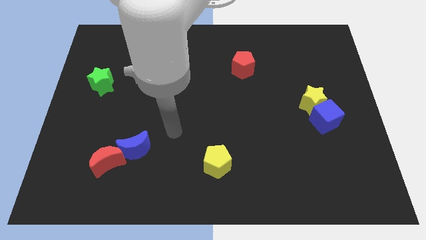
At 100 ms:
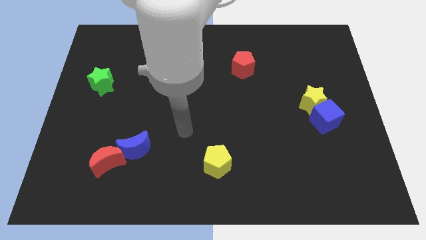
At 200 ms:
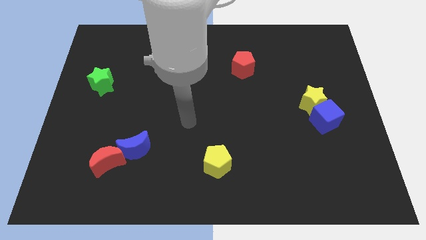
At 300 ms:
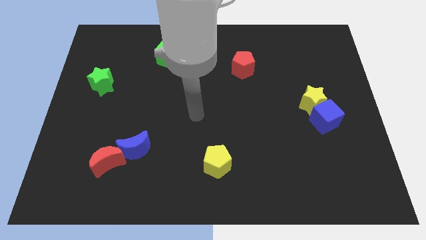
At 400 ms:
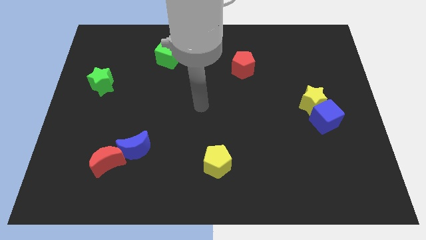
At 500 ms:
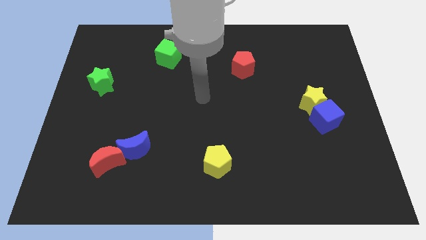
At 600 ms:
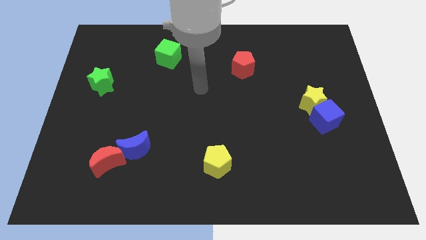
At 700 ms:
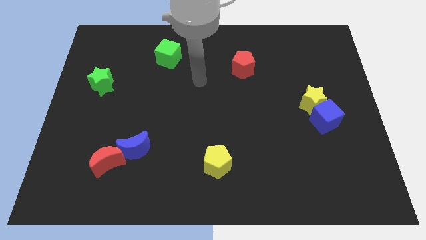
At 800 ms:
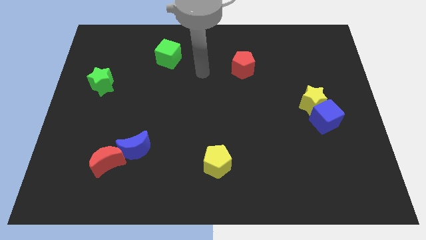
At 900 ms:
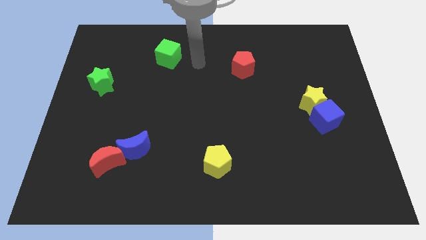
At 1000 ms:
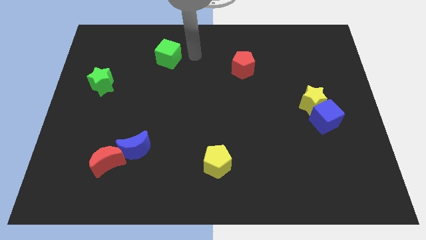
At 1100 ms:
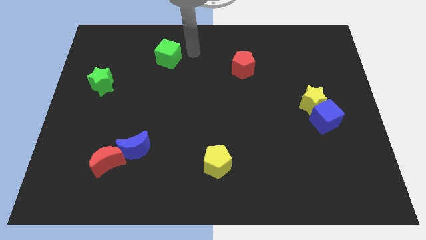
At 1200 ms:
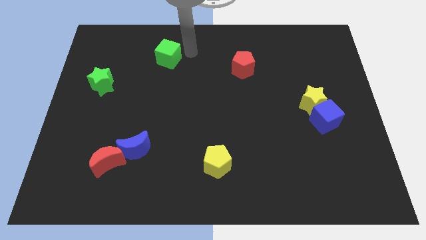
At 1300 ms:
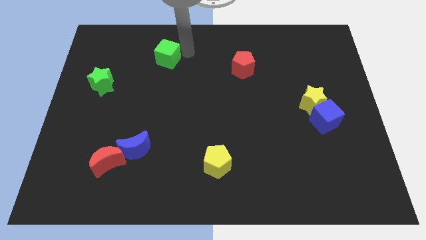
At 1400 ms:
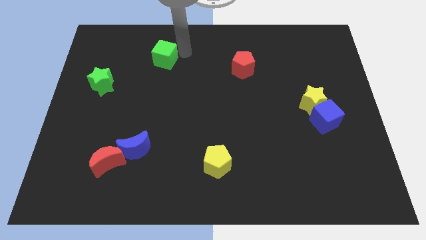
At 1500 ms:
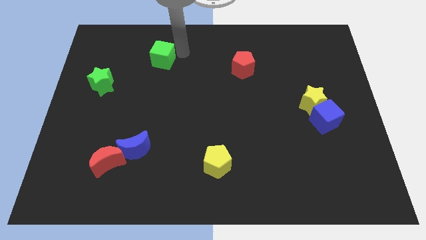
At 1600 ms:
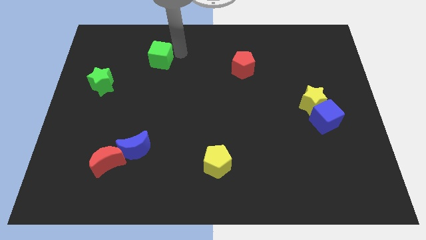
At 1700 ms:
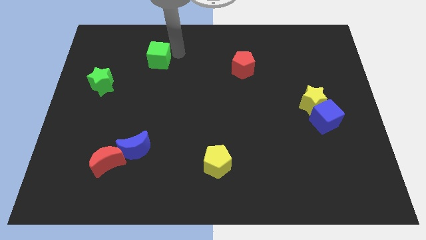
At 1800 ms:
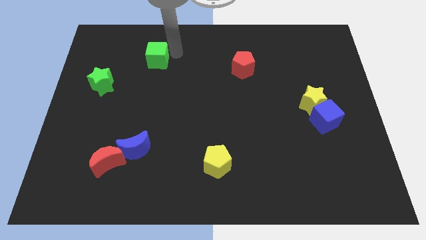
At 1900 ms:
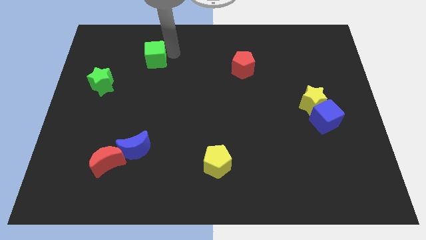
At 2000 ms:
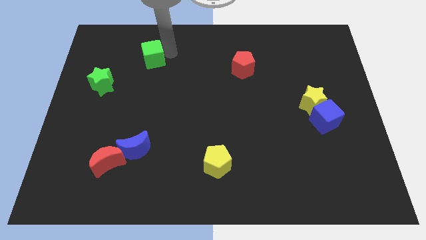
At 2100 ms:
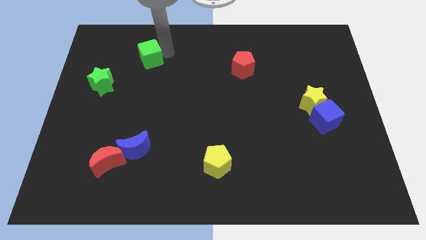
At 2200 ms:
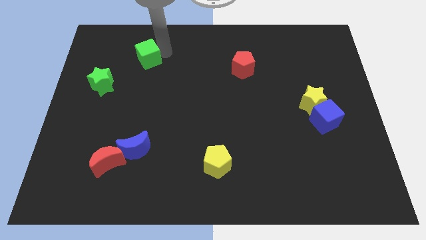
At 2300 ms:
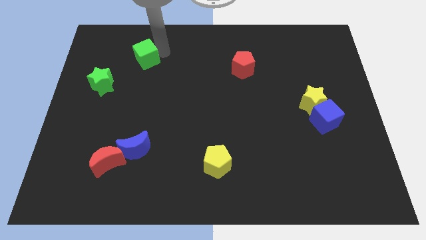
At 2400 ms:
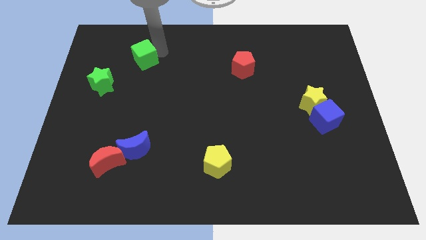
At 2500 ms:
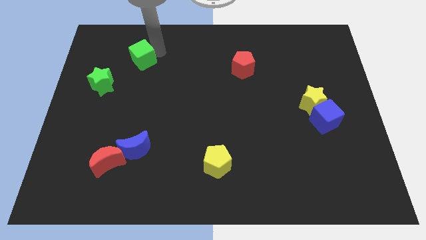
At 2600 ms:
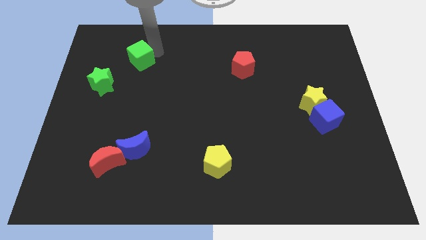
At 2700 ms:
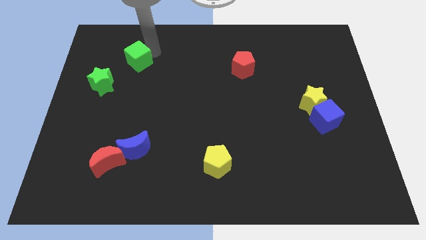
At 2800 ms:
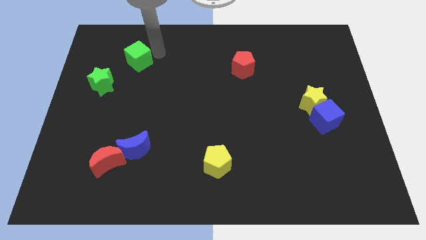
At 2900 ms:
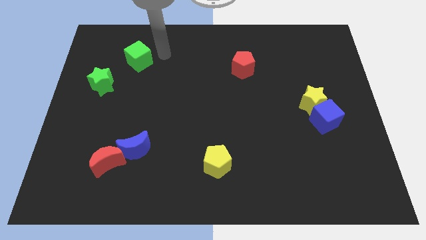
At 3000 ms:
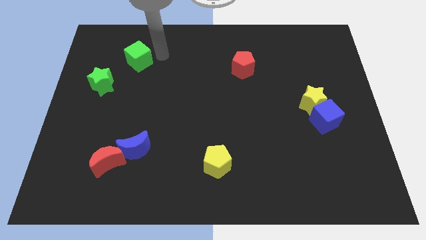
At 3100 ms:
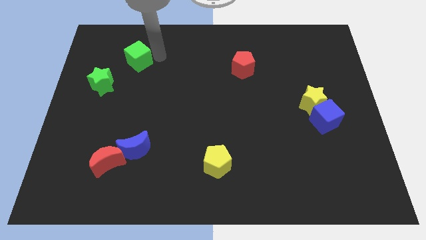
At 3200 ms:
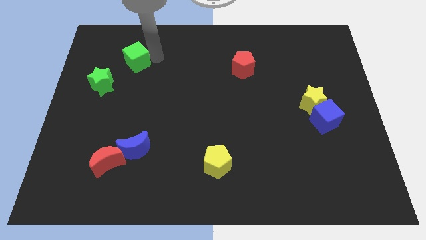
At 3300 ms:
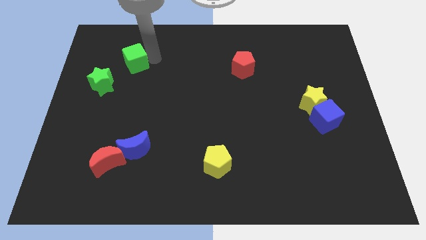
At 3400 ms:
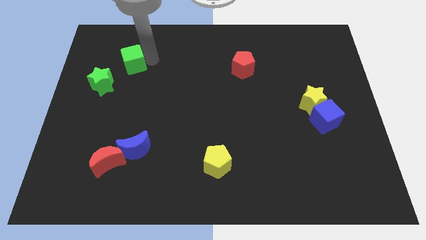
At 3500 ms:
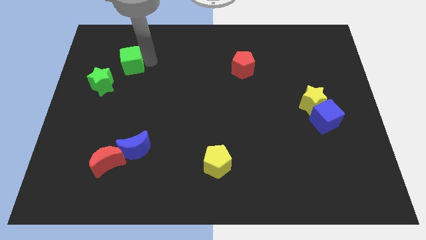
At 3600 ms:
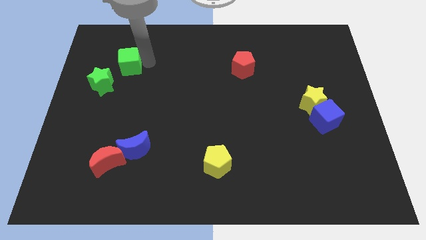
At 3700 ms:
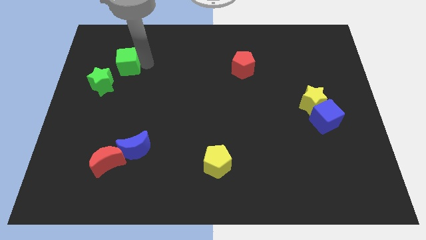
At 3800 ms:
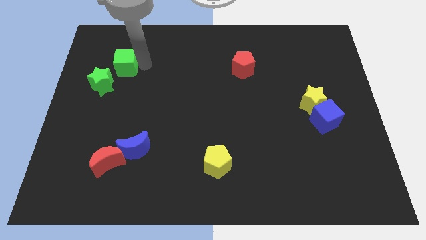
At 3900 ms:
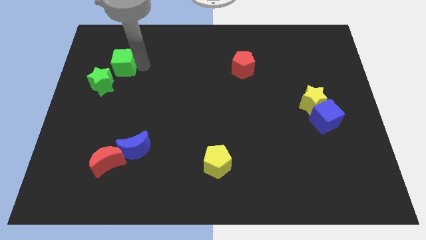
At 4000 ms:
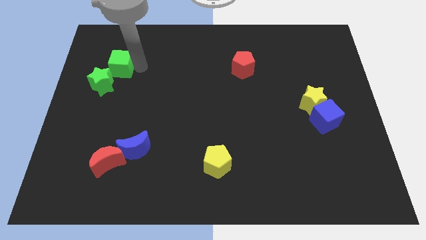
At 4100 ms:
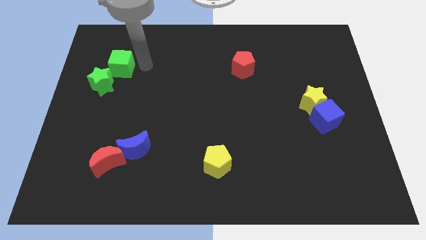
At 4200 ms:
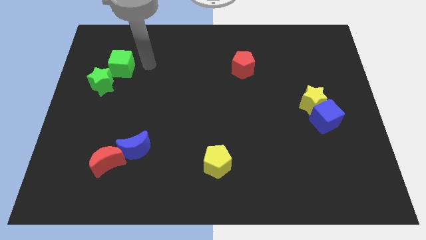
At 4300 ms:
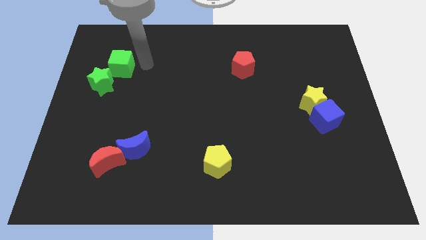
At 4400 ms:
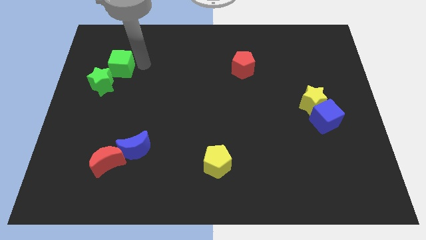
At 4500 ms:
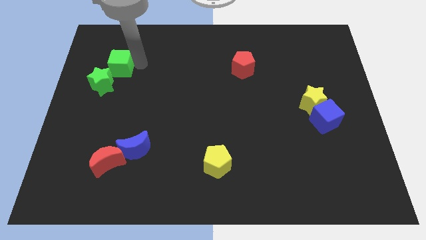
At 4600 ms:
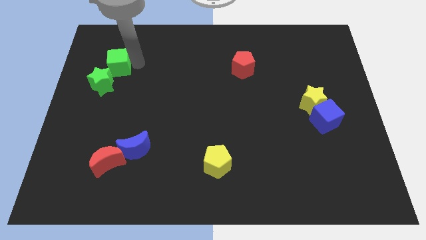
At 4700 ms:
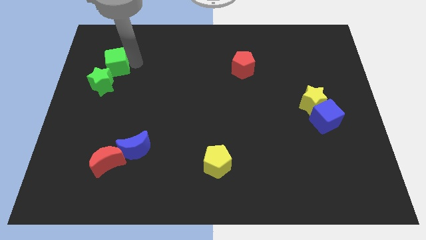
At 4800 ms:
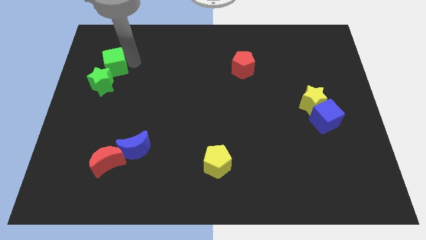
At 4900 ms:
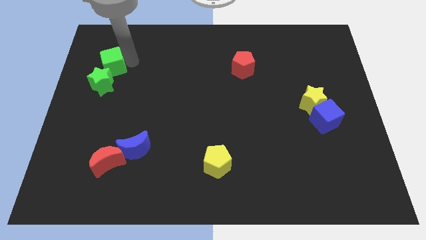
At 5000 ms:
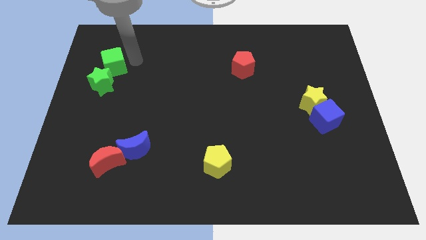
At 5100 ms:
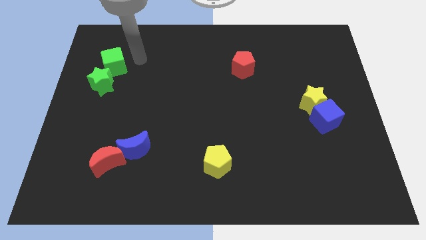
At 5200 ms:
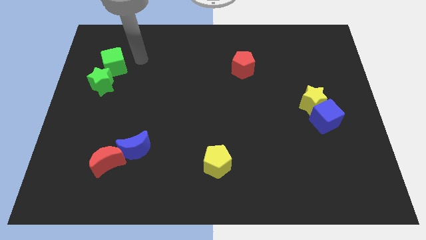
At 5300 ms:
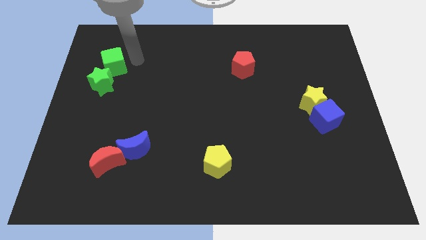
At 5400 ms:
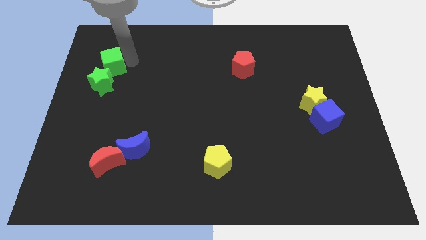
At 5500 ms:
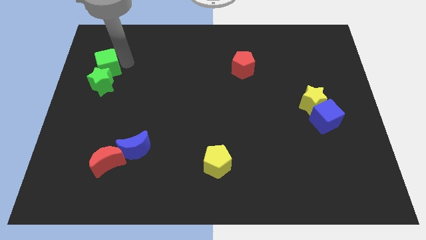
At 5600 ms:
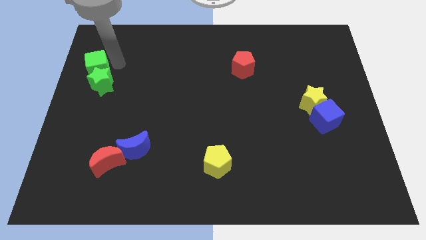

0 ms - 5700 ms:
push the green cube to the center left

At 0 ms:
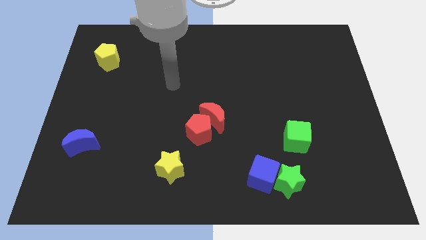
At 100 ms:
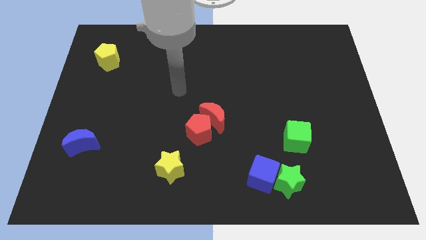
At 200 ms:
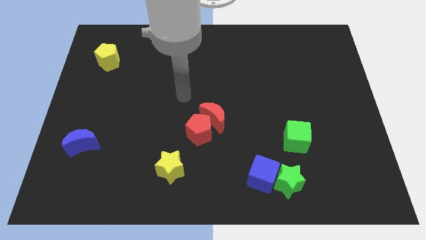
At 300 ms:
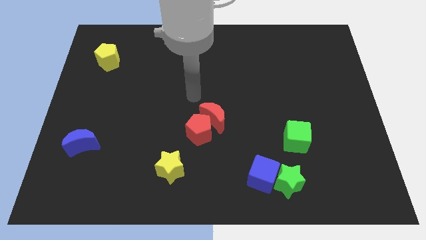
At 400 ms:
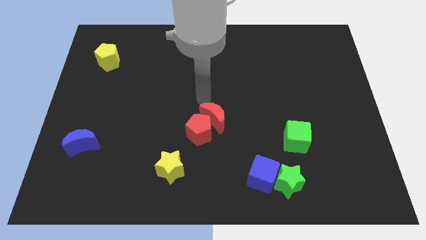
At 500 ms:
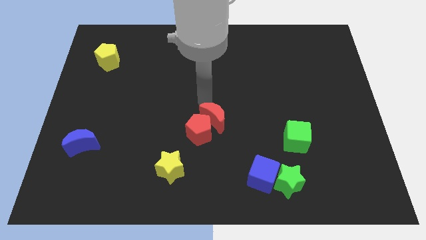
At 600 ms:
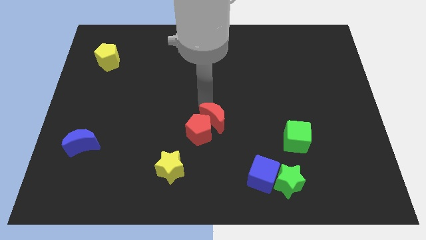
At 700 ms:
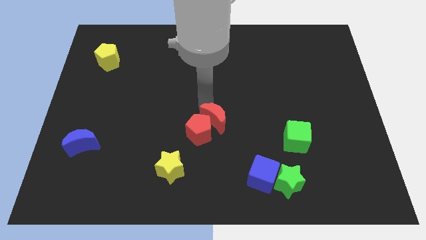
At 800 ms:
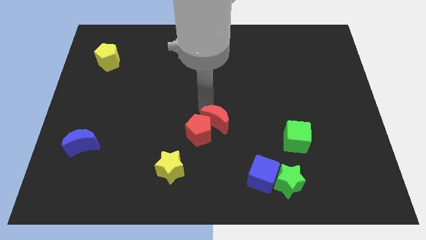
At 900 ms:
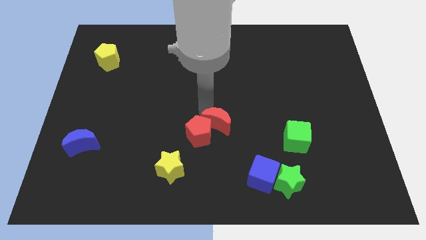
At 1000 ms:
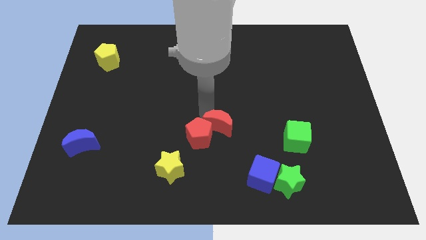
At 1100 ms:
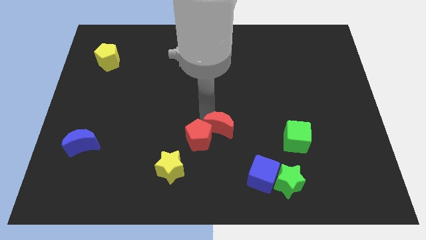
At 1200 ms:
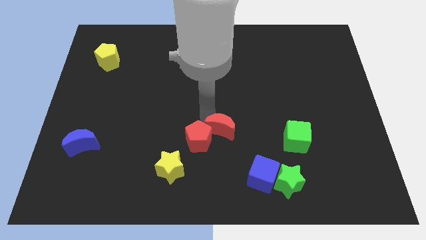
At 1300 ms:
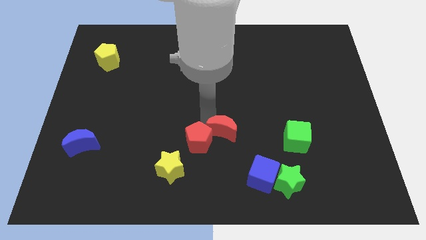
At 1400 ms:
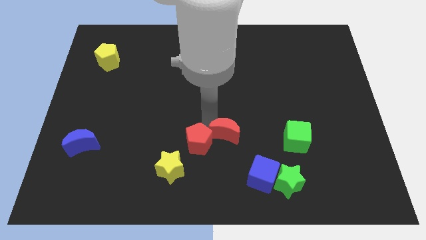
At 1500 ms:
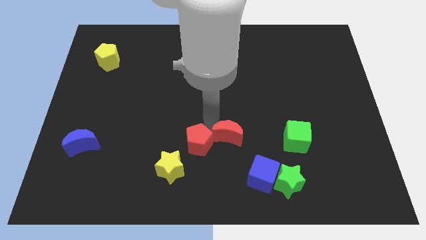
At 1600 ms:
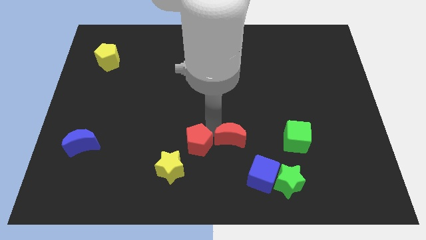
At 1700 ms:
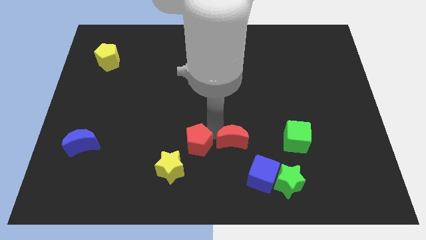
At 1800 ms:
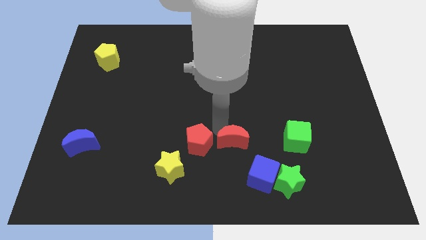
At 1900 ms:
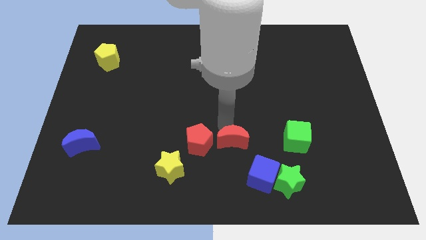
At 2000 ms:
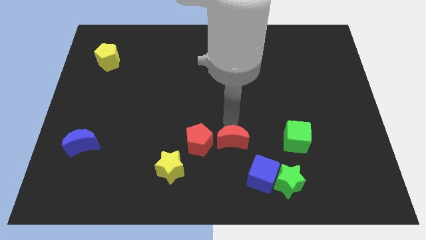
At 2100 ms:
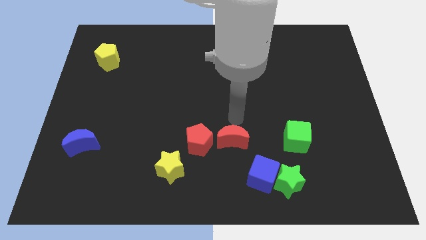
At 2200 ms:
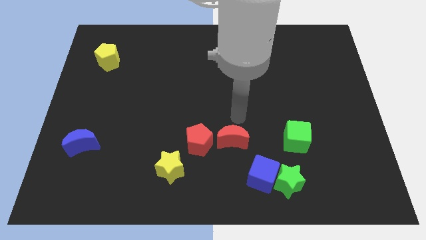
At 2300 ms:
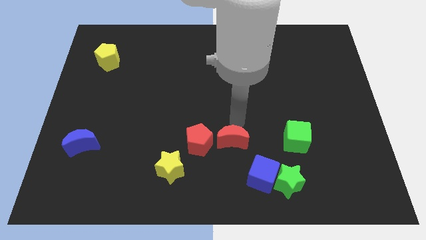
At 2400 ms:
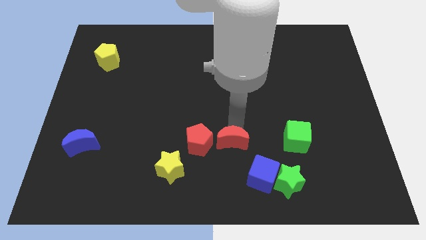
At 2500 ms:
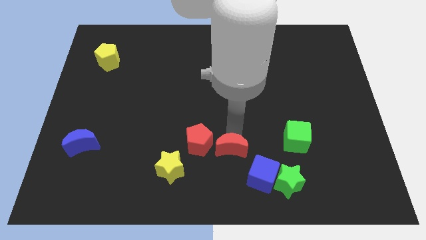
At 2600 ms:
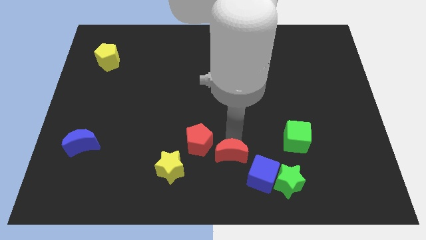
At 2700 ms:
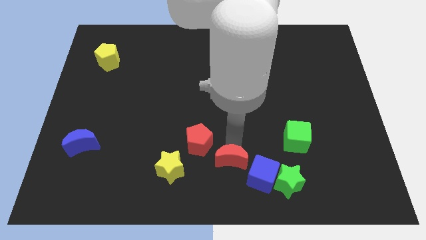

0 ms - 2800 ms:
slide the red moon to the bottom
